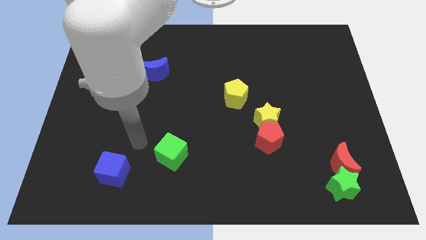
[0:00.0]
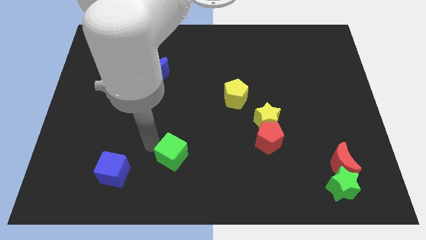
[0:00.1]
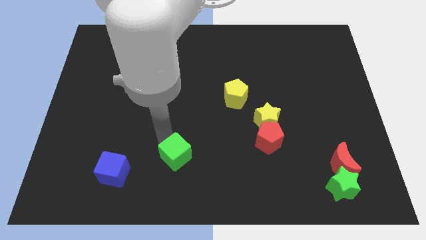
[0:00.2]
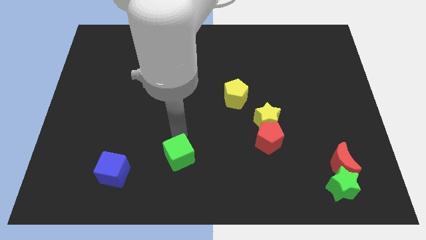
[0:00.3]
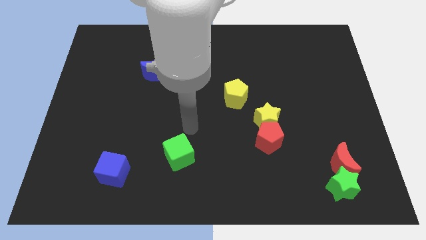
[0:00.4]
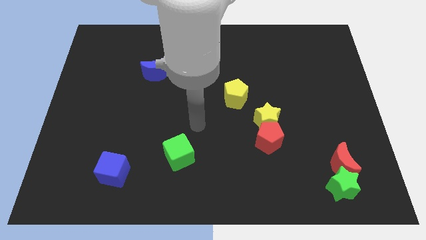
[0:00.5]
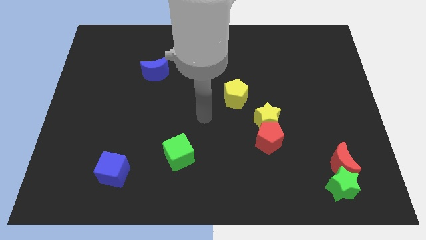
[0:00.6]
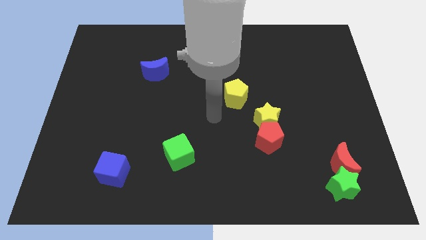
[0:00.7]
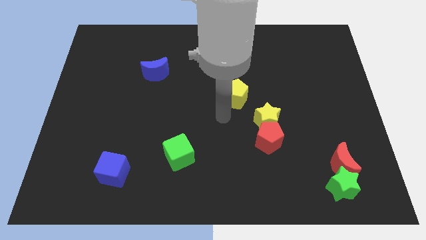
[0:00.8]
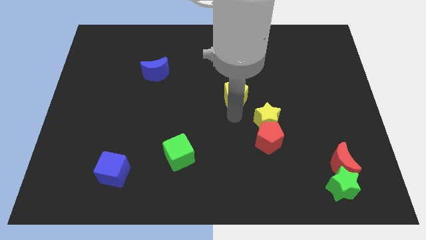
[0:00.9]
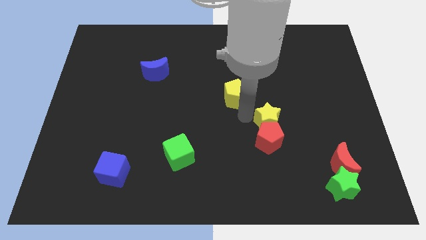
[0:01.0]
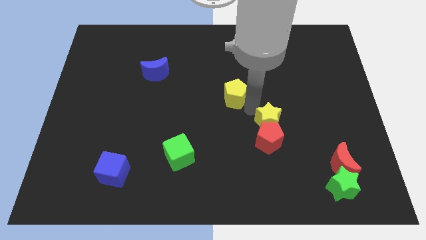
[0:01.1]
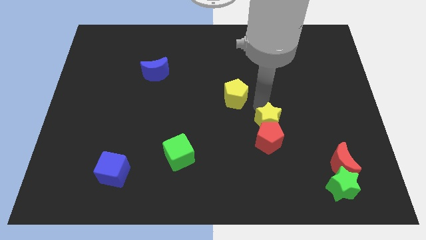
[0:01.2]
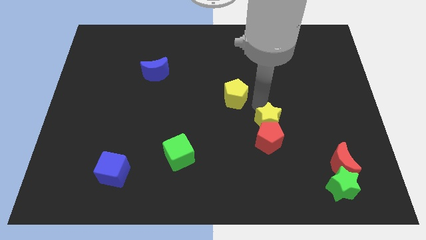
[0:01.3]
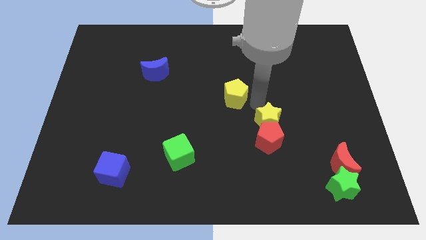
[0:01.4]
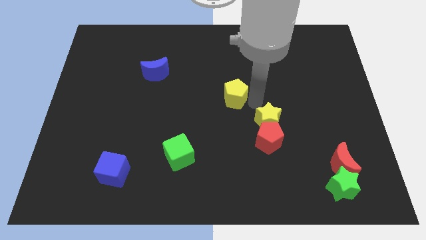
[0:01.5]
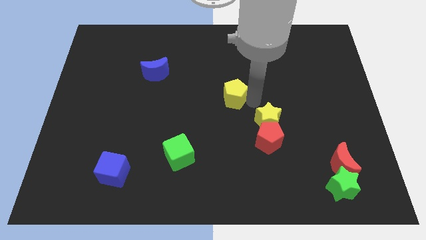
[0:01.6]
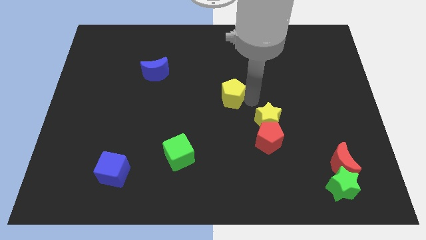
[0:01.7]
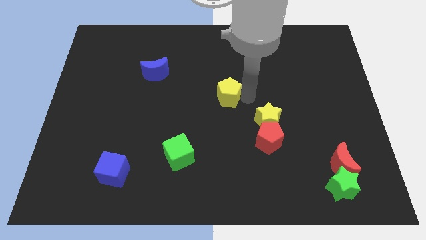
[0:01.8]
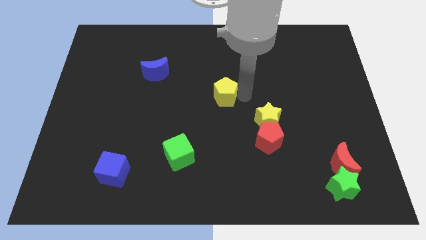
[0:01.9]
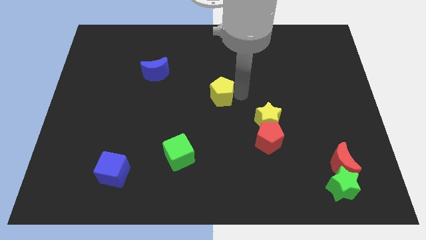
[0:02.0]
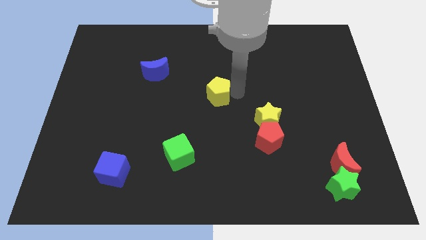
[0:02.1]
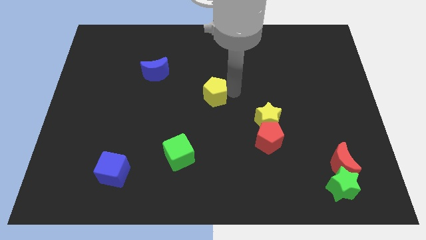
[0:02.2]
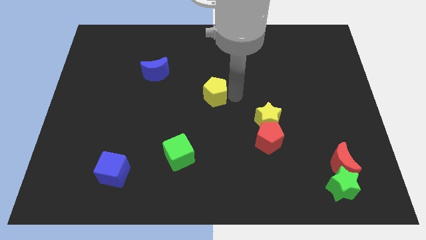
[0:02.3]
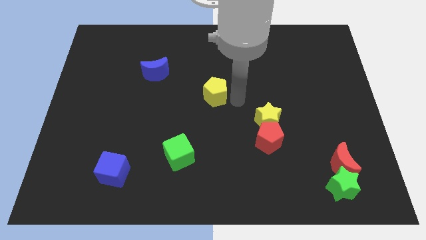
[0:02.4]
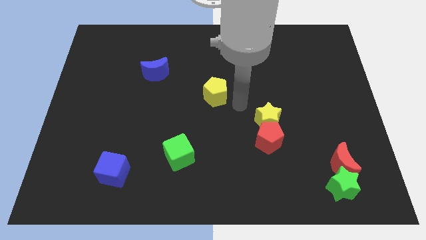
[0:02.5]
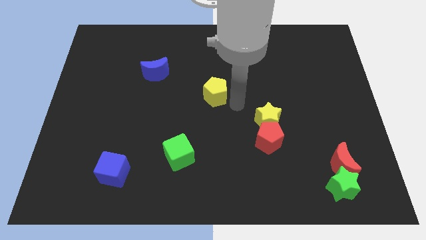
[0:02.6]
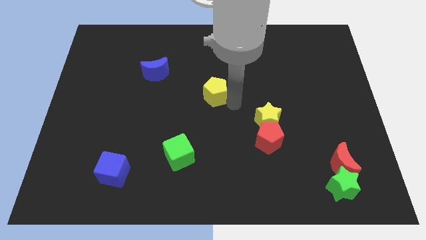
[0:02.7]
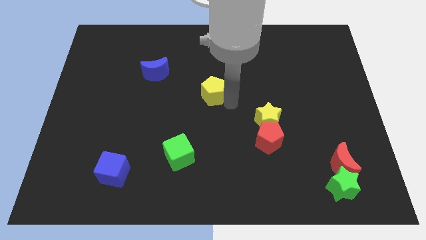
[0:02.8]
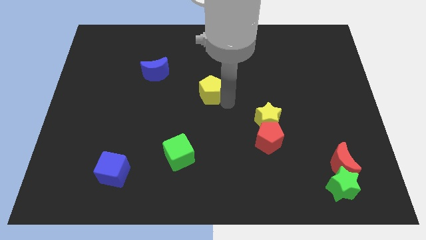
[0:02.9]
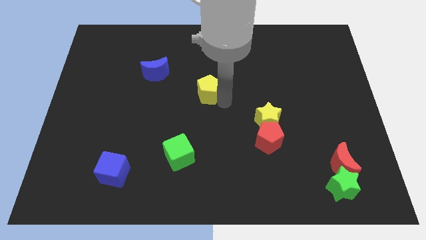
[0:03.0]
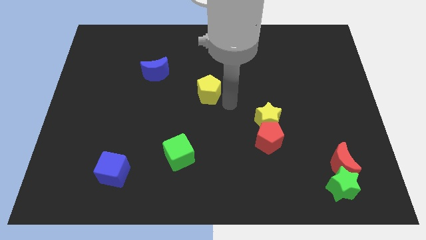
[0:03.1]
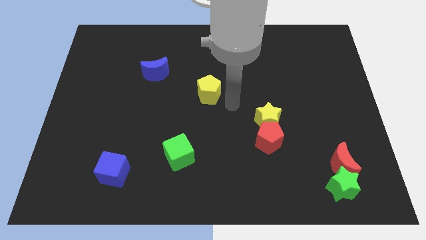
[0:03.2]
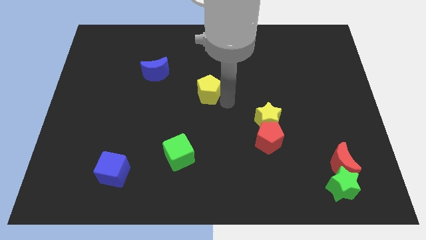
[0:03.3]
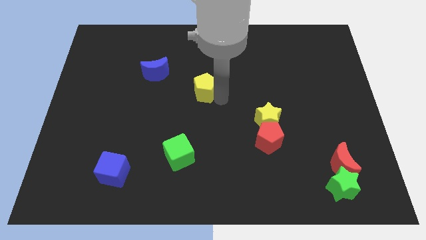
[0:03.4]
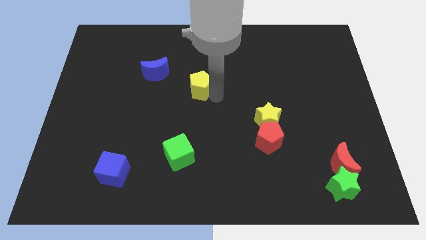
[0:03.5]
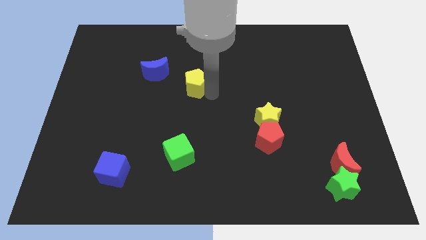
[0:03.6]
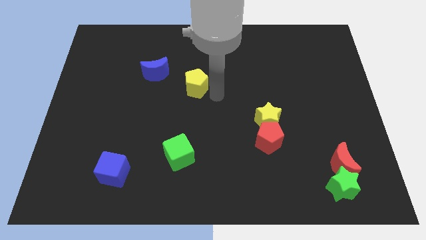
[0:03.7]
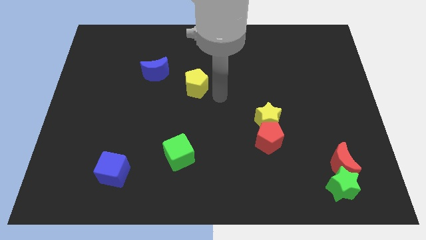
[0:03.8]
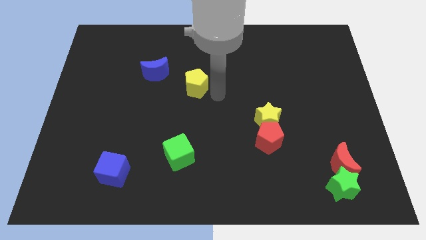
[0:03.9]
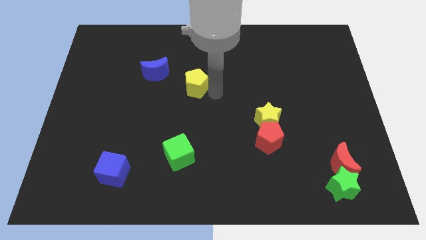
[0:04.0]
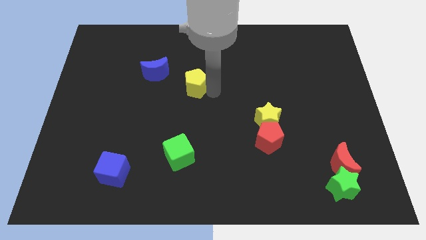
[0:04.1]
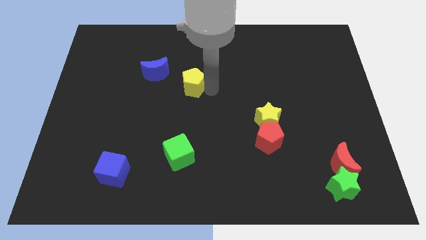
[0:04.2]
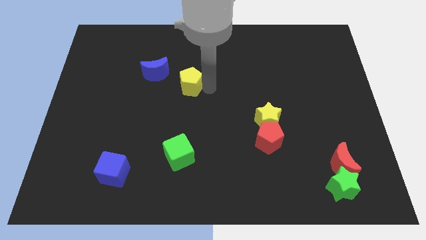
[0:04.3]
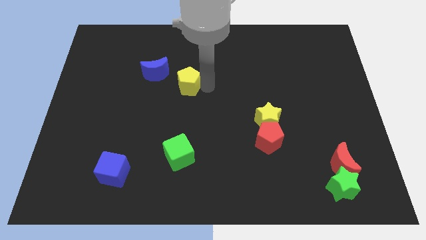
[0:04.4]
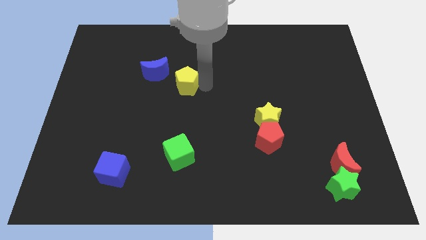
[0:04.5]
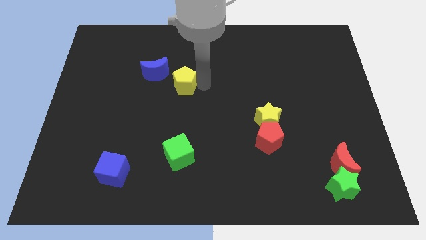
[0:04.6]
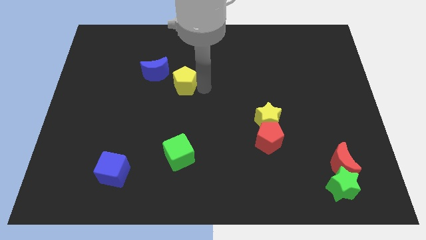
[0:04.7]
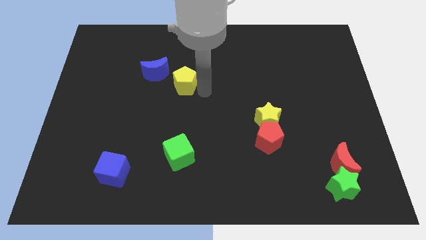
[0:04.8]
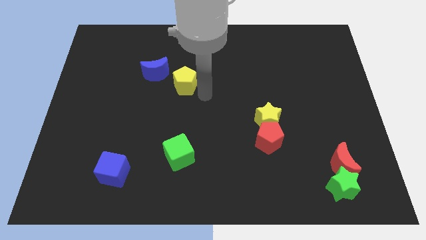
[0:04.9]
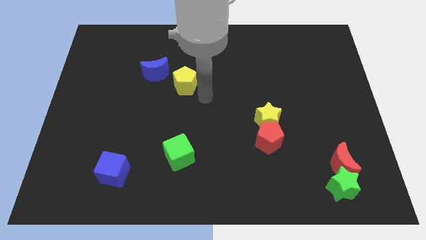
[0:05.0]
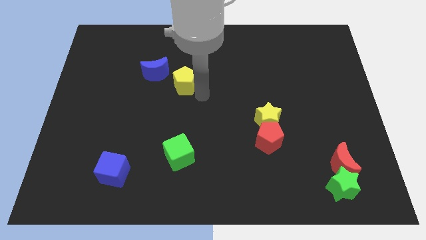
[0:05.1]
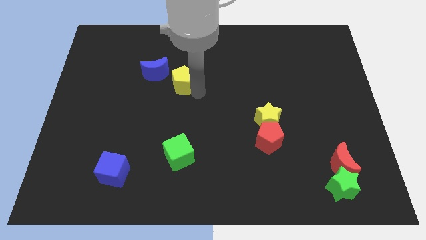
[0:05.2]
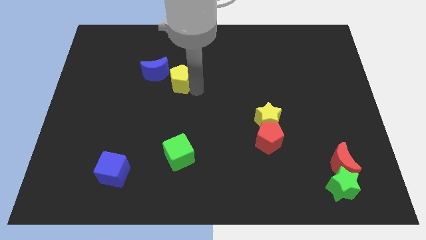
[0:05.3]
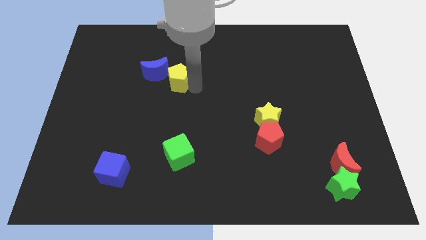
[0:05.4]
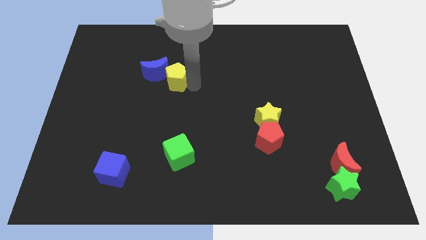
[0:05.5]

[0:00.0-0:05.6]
move the yellow pentagon to the blue moon

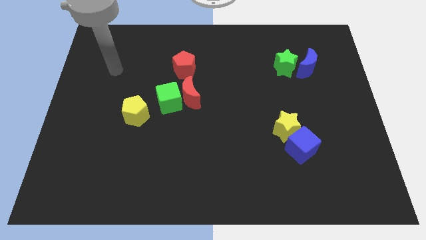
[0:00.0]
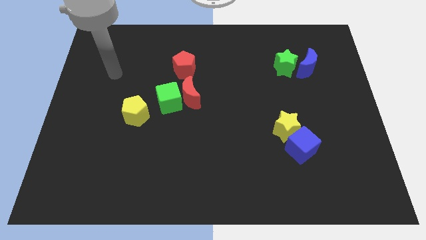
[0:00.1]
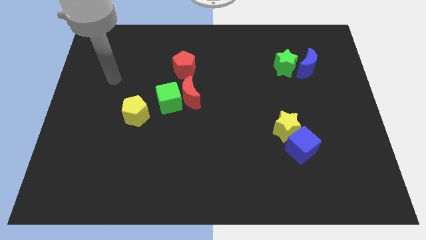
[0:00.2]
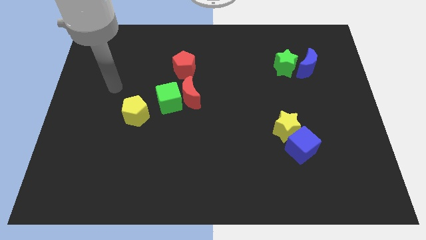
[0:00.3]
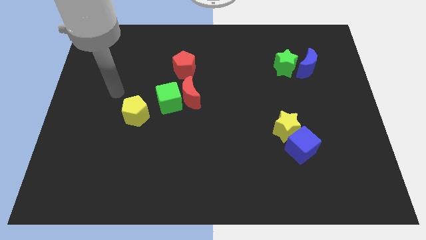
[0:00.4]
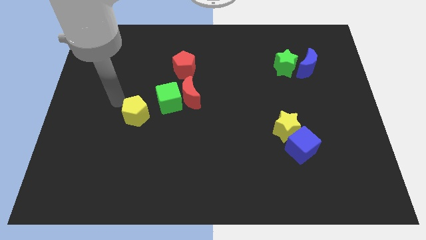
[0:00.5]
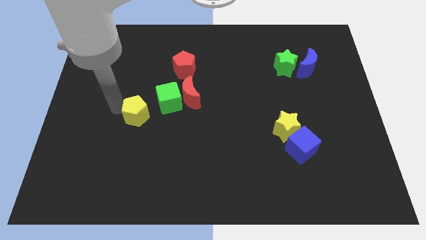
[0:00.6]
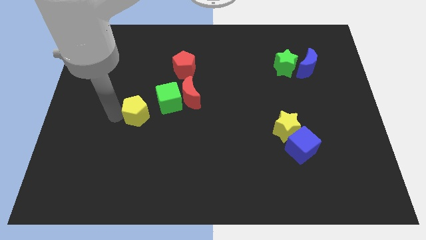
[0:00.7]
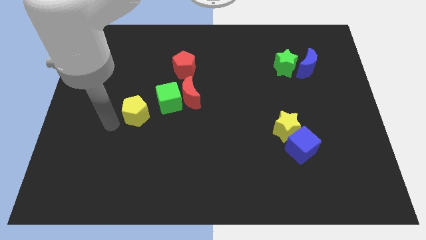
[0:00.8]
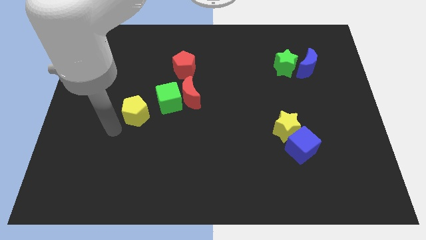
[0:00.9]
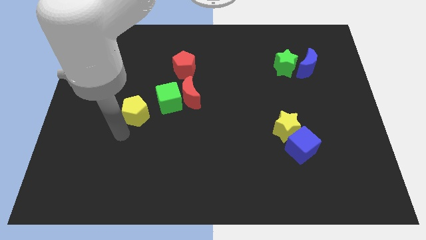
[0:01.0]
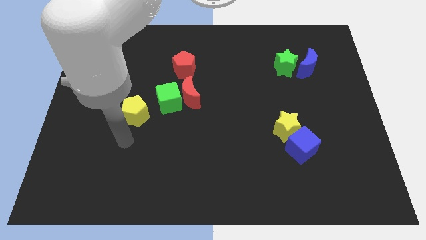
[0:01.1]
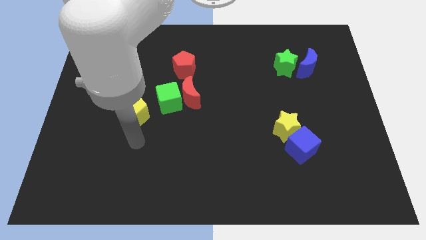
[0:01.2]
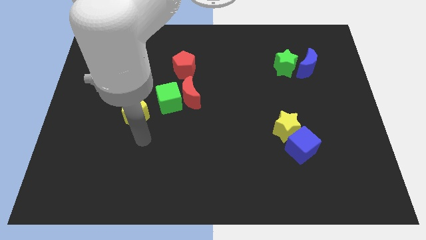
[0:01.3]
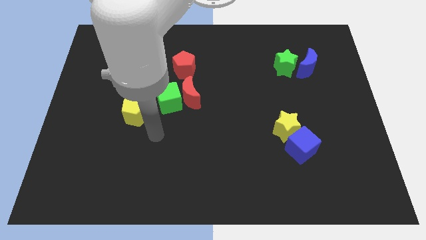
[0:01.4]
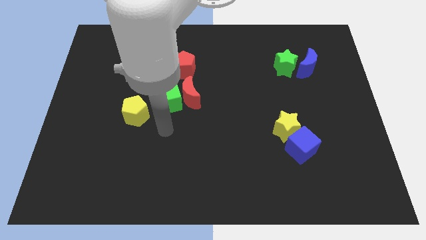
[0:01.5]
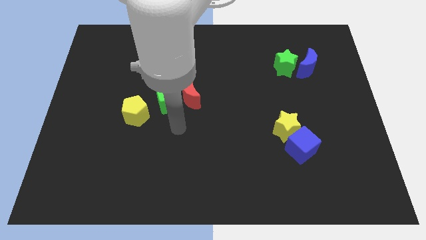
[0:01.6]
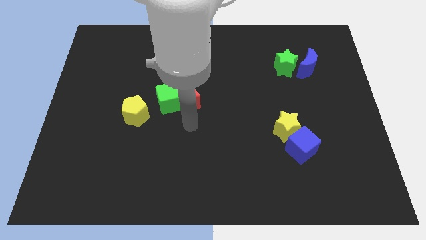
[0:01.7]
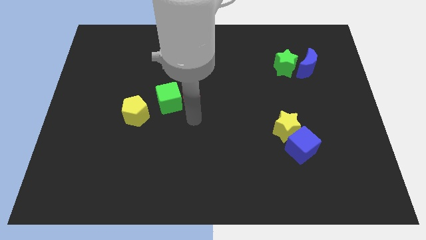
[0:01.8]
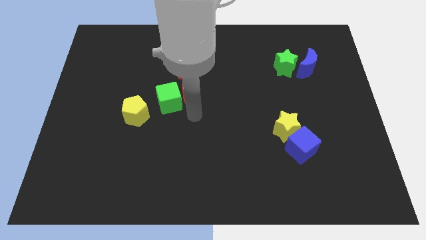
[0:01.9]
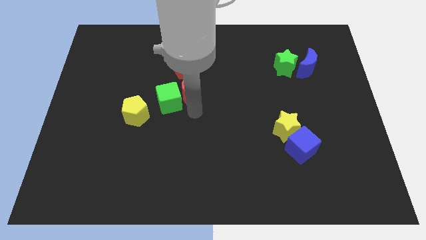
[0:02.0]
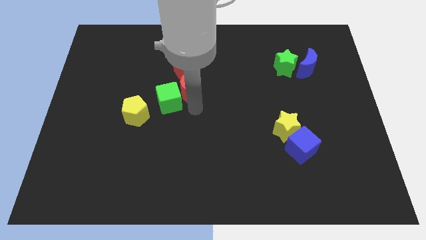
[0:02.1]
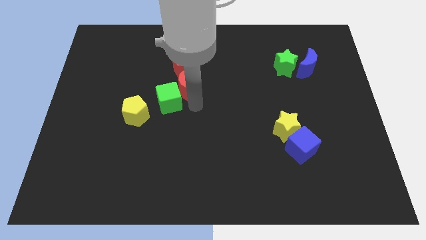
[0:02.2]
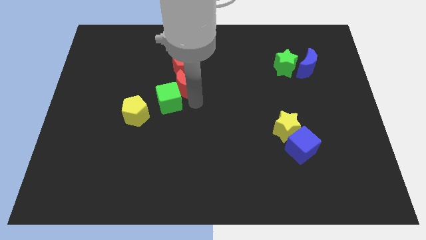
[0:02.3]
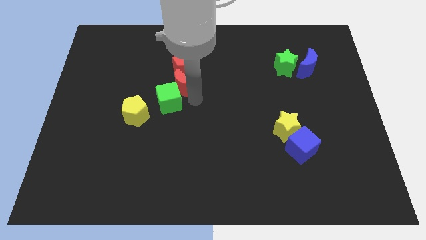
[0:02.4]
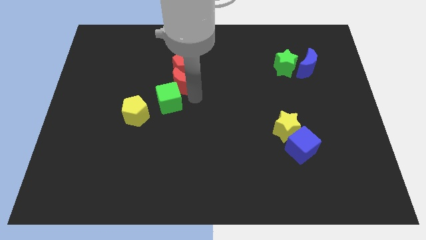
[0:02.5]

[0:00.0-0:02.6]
slide the red moon towards the red pentagon
